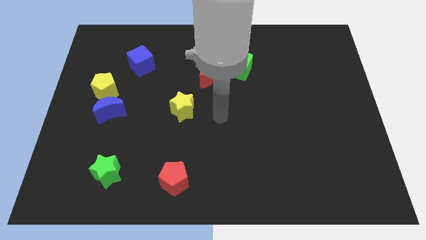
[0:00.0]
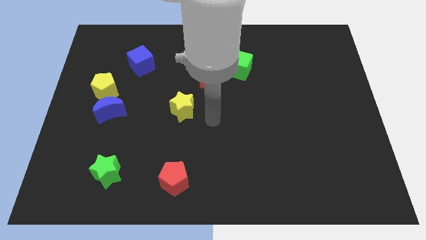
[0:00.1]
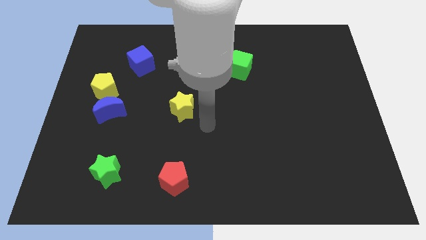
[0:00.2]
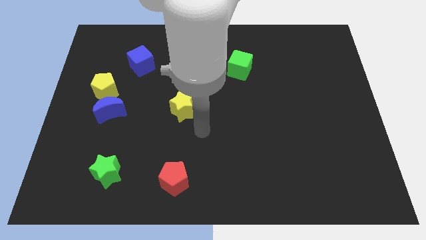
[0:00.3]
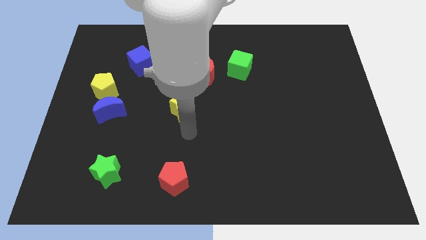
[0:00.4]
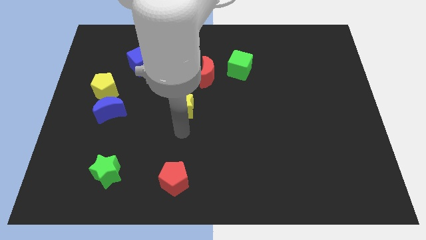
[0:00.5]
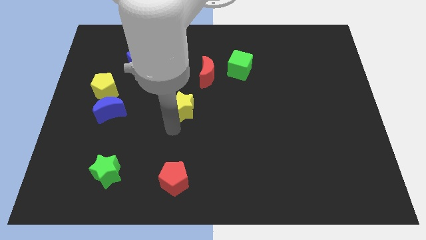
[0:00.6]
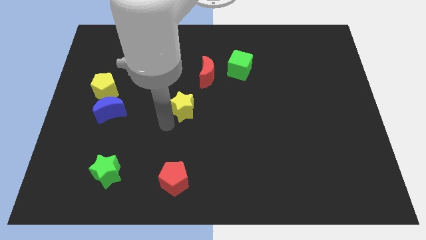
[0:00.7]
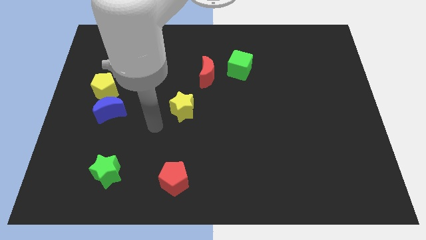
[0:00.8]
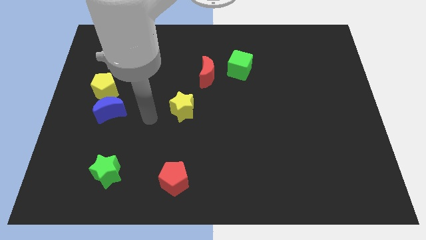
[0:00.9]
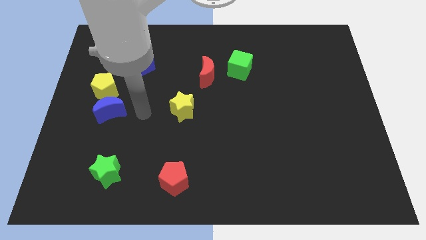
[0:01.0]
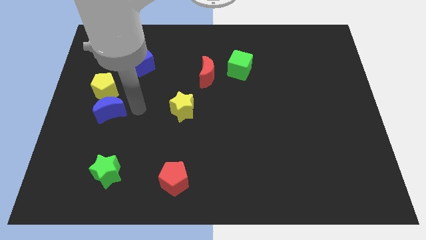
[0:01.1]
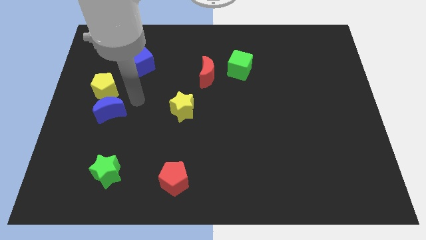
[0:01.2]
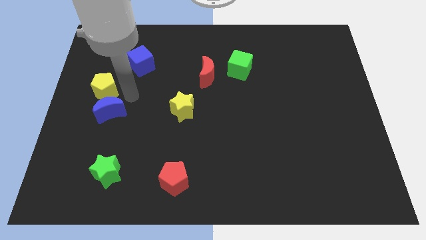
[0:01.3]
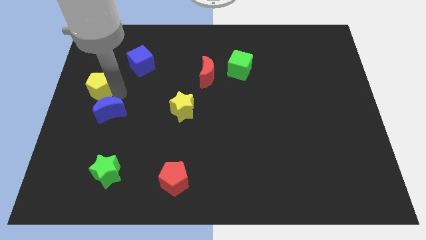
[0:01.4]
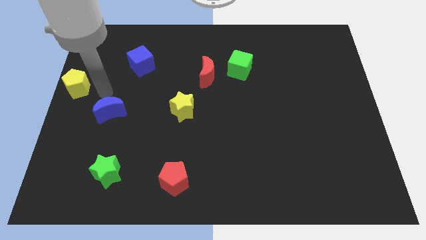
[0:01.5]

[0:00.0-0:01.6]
separate the blue moon from the yellow pentagon

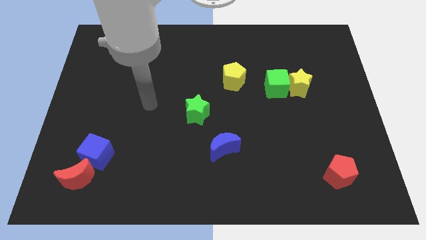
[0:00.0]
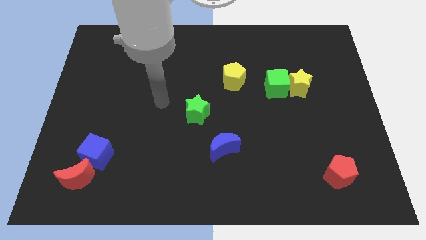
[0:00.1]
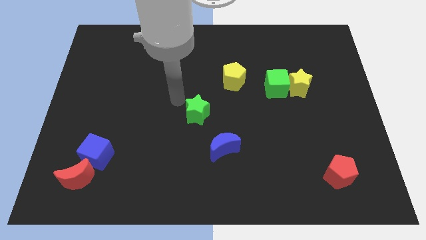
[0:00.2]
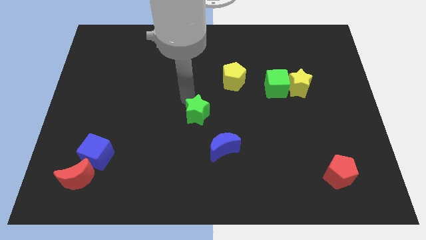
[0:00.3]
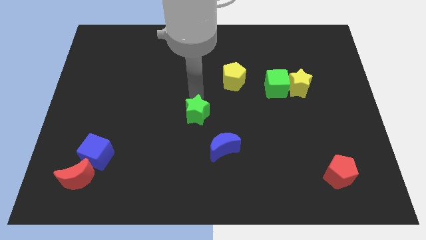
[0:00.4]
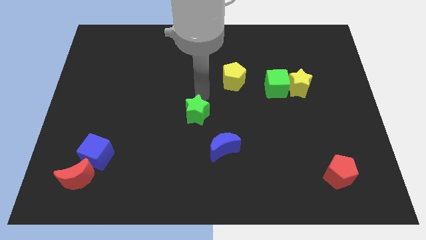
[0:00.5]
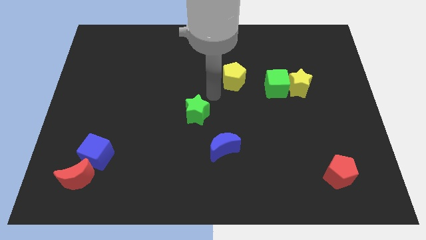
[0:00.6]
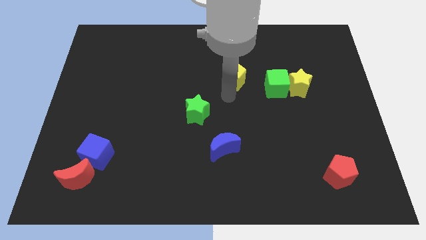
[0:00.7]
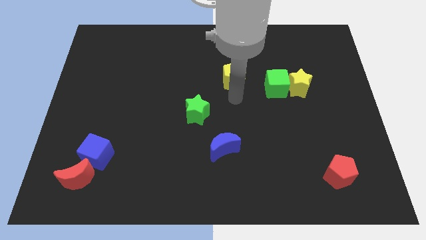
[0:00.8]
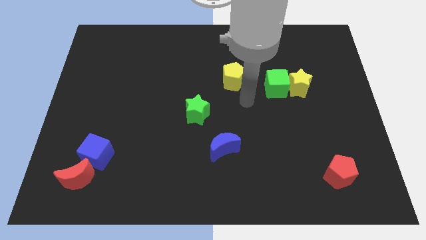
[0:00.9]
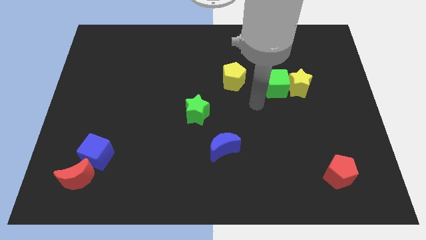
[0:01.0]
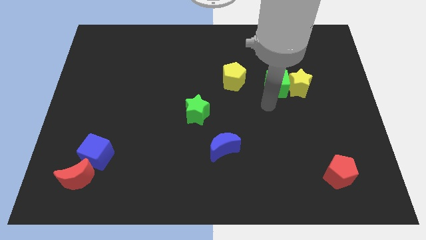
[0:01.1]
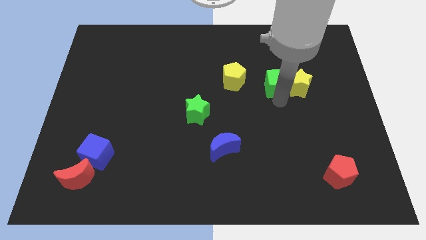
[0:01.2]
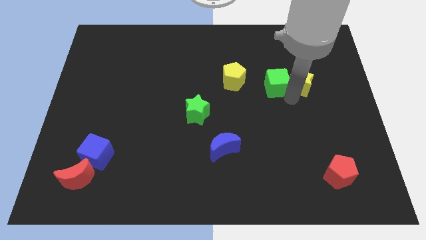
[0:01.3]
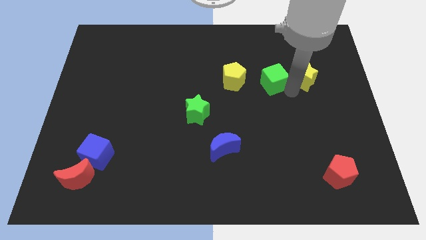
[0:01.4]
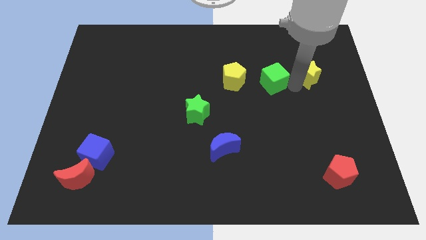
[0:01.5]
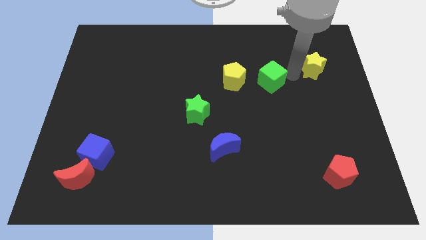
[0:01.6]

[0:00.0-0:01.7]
move the green cube away from the yellow star

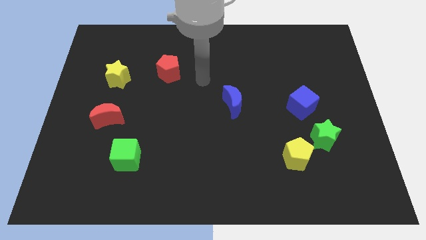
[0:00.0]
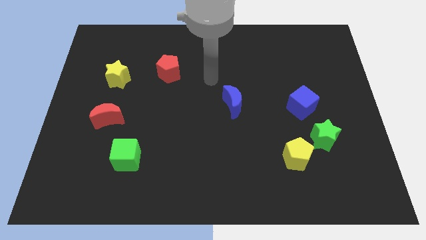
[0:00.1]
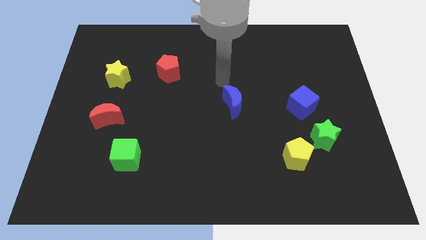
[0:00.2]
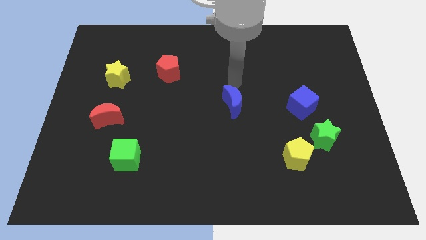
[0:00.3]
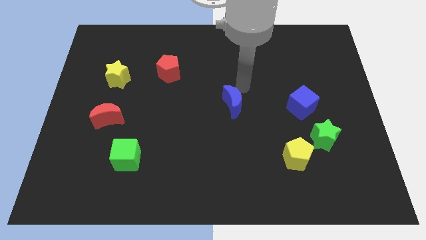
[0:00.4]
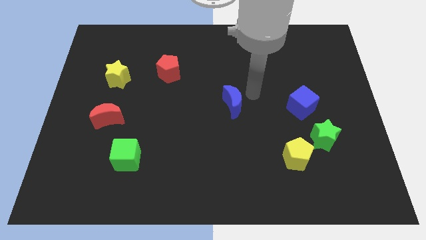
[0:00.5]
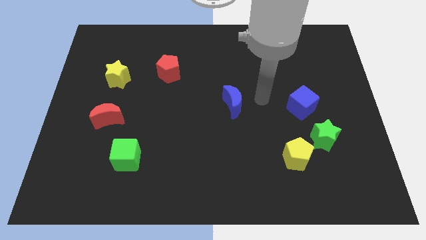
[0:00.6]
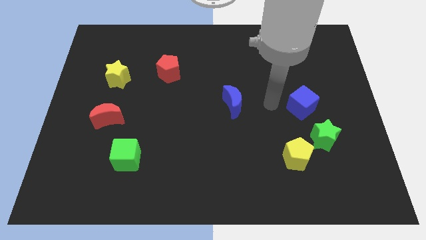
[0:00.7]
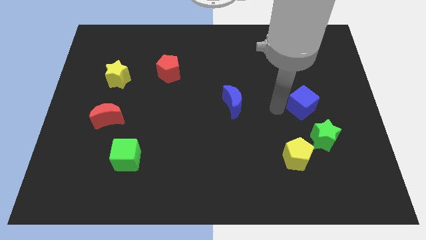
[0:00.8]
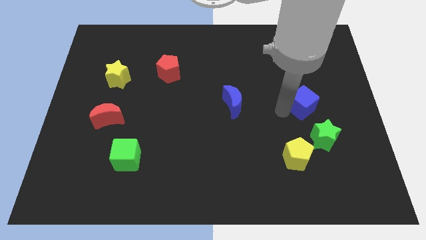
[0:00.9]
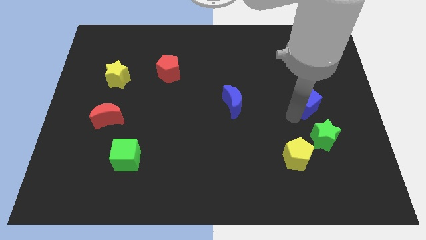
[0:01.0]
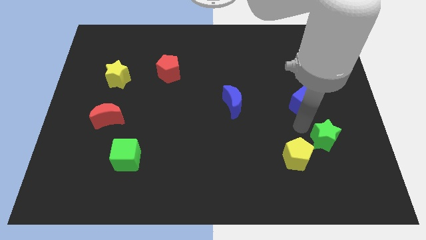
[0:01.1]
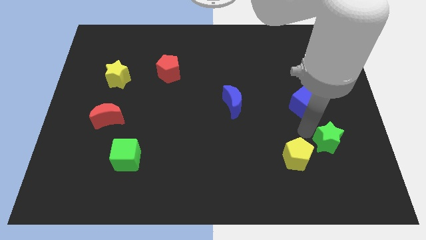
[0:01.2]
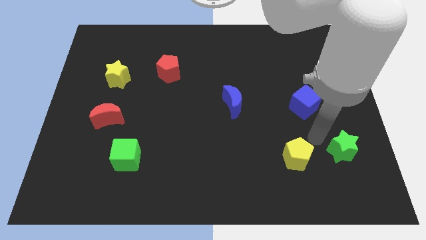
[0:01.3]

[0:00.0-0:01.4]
separate the yellow pentagon from the green star

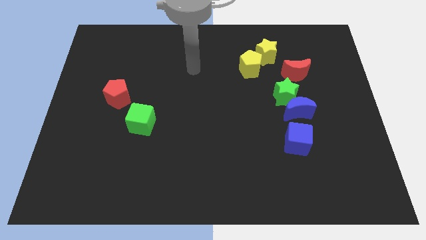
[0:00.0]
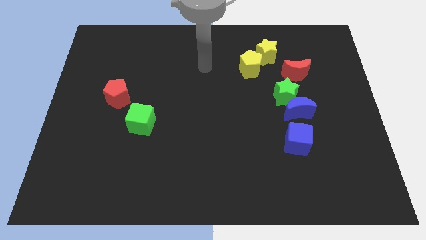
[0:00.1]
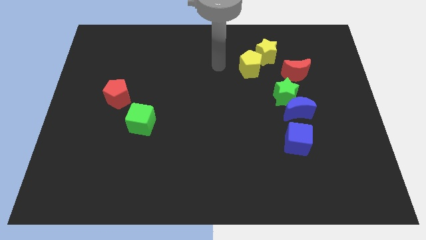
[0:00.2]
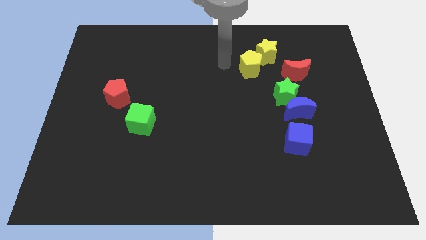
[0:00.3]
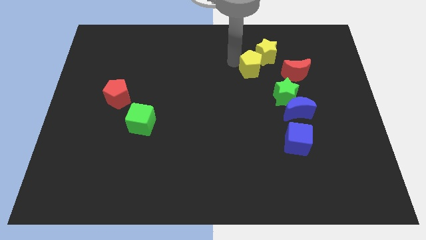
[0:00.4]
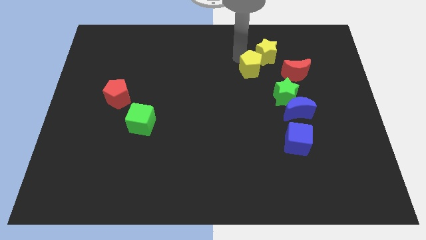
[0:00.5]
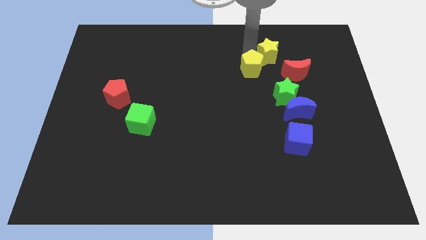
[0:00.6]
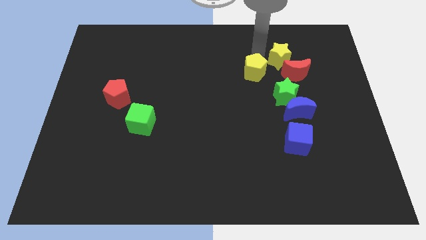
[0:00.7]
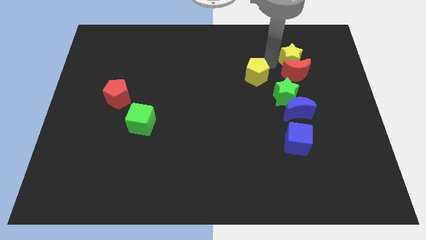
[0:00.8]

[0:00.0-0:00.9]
move the yellow pentagon away from the yellow star

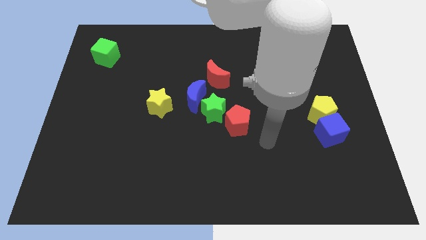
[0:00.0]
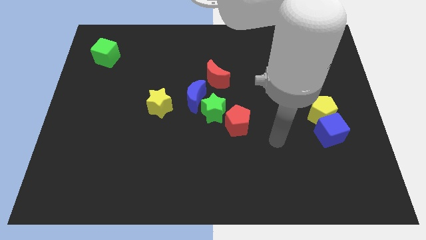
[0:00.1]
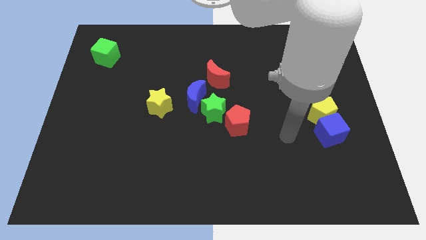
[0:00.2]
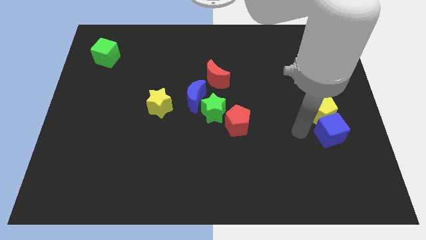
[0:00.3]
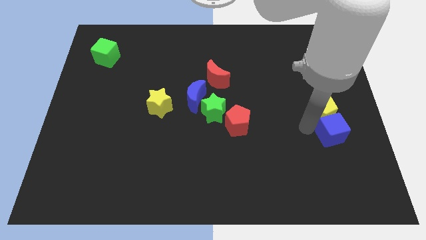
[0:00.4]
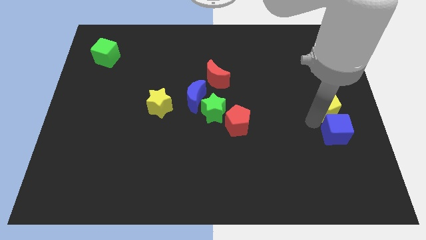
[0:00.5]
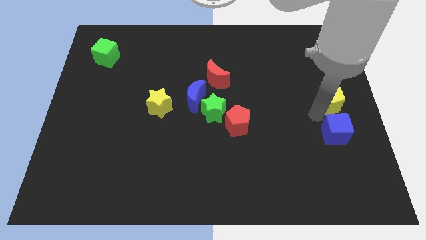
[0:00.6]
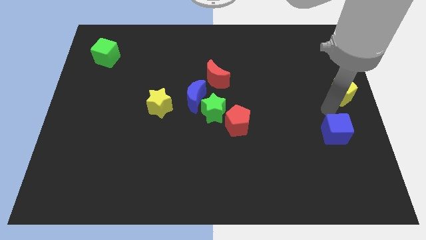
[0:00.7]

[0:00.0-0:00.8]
pull the blue cube apart from the yellow pentagon

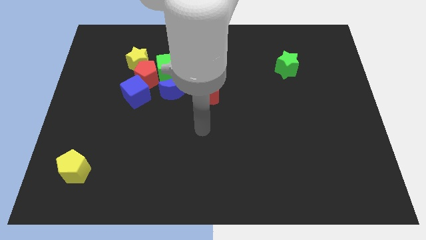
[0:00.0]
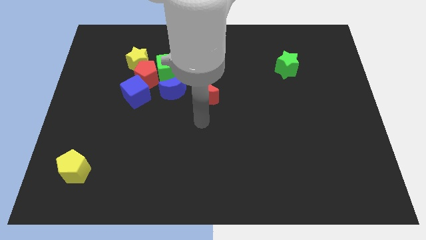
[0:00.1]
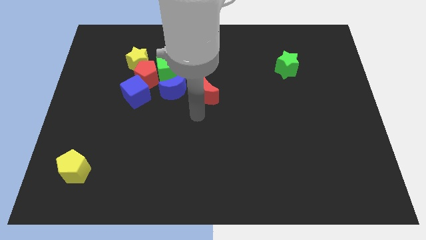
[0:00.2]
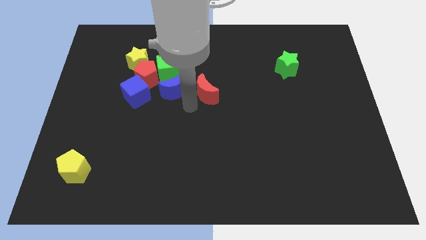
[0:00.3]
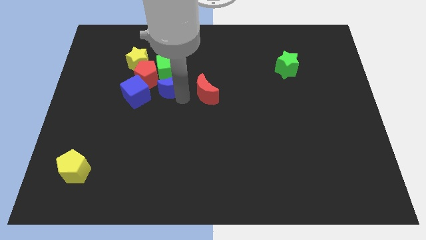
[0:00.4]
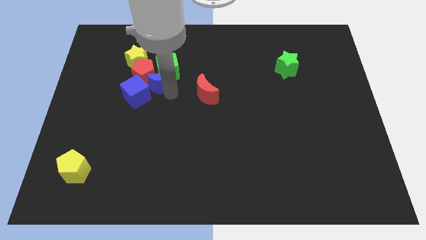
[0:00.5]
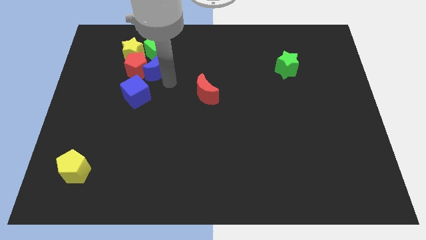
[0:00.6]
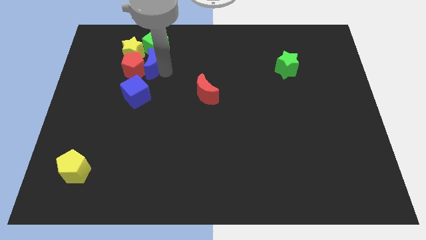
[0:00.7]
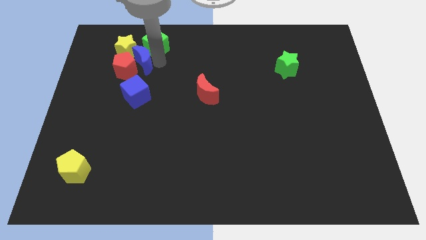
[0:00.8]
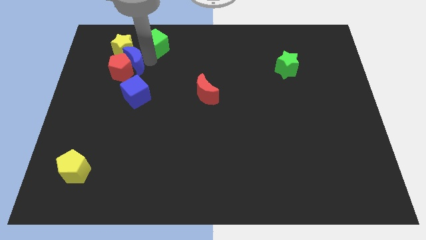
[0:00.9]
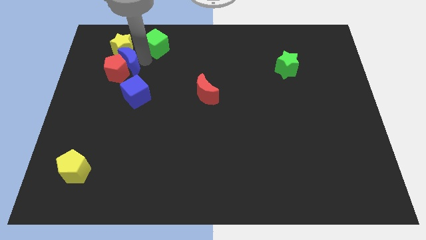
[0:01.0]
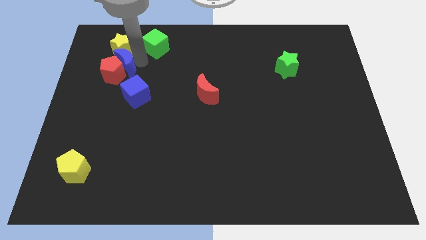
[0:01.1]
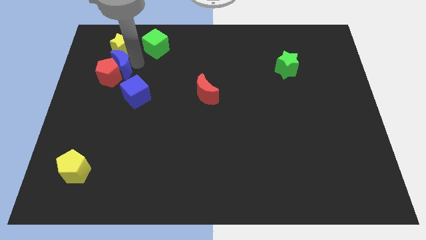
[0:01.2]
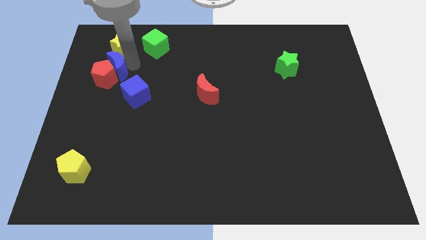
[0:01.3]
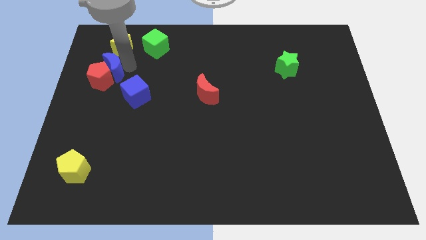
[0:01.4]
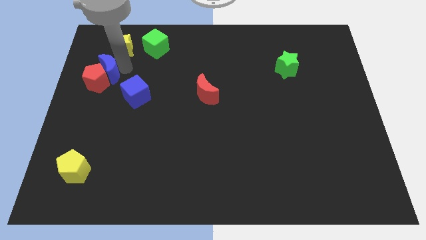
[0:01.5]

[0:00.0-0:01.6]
separate the red pentagon from the clump

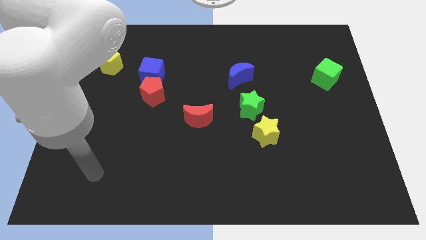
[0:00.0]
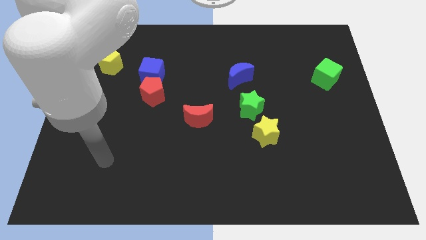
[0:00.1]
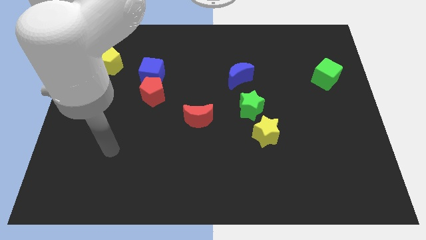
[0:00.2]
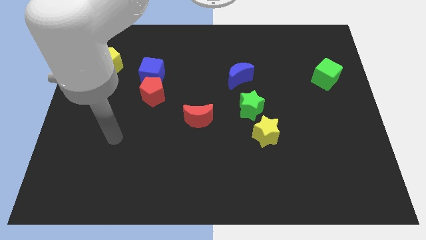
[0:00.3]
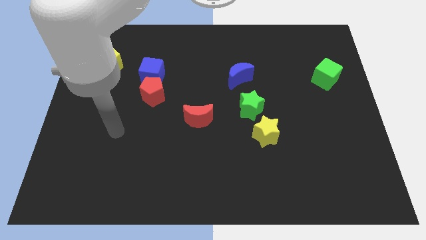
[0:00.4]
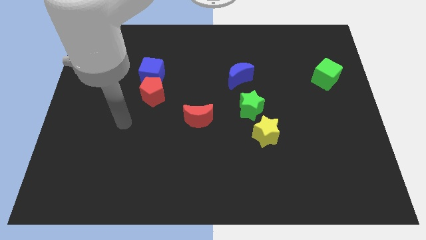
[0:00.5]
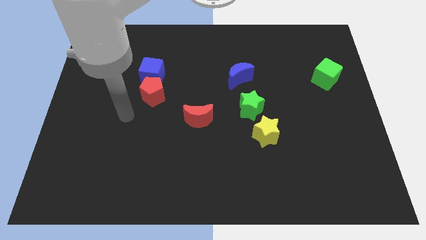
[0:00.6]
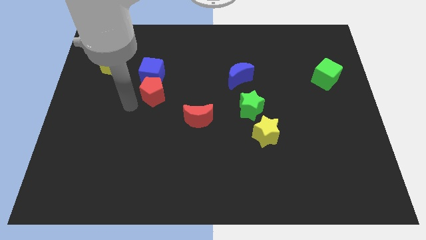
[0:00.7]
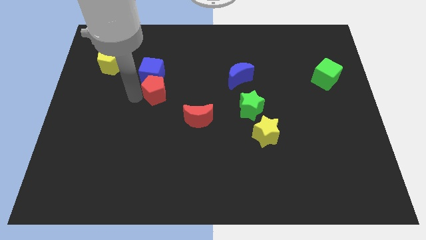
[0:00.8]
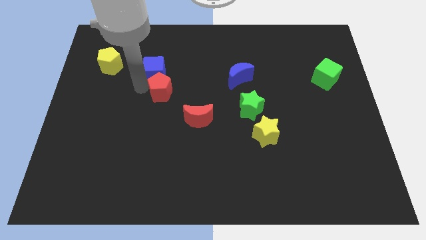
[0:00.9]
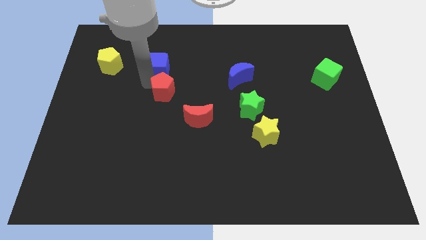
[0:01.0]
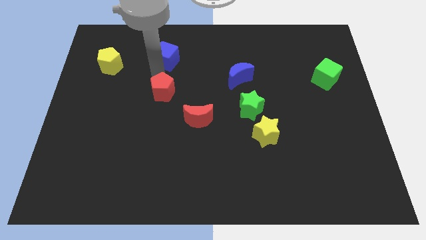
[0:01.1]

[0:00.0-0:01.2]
move the red pentagon away from the blue cube

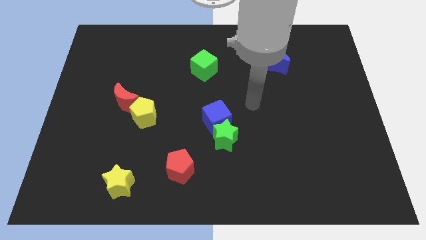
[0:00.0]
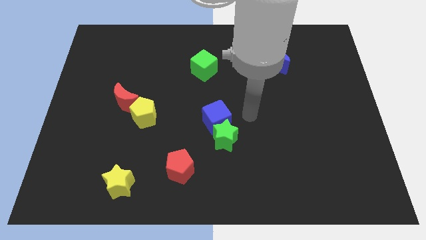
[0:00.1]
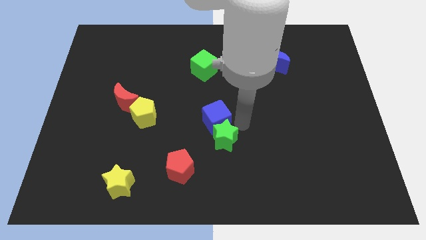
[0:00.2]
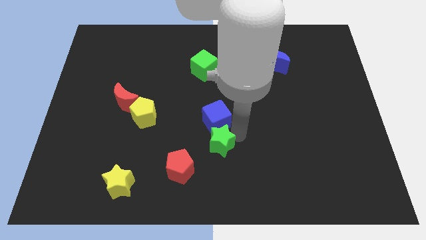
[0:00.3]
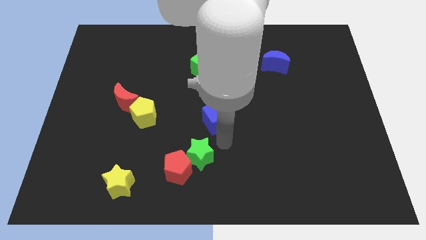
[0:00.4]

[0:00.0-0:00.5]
pull the blue cube apart from the green star
